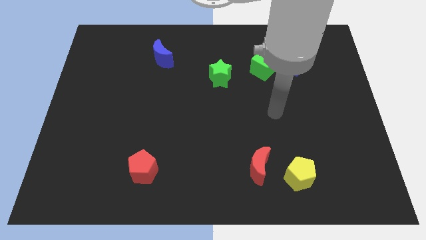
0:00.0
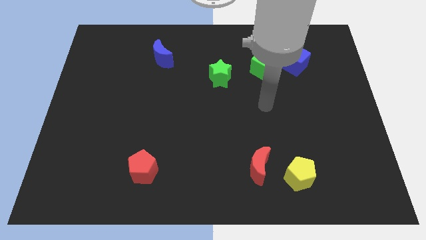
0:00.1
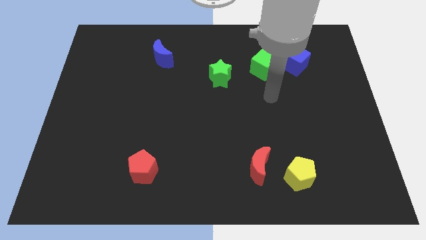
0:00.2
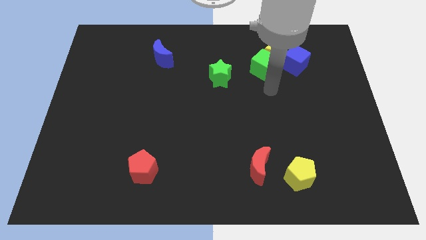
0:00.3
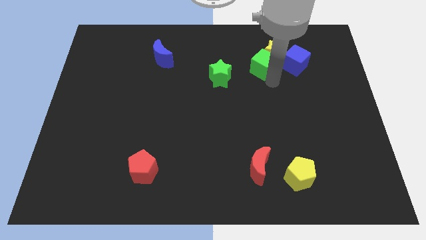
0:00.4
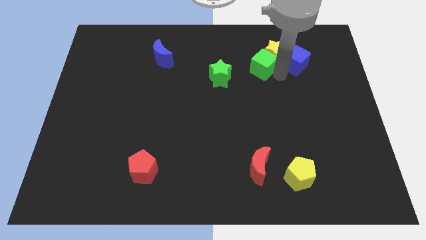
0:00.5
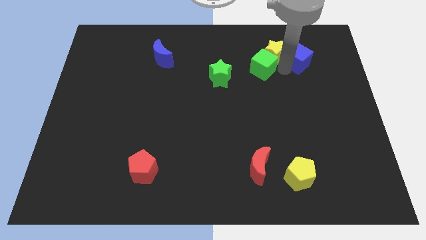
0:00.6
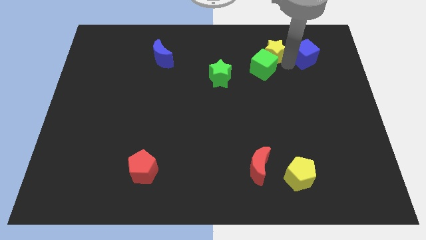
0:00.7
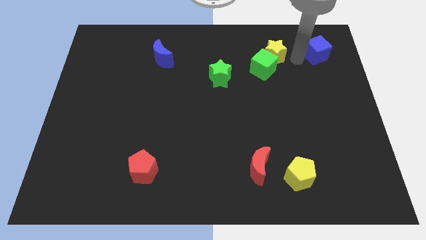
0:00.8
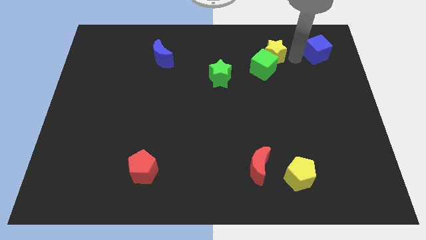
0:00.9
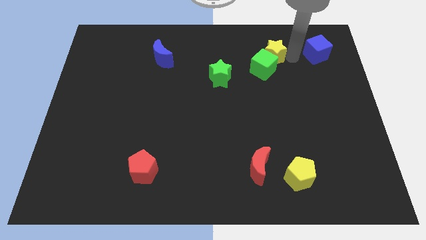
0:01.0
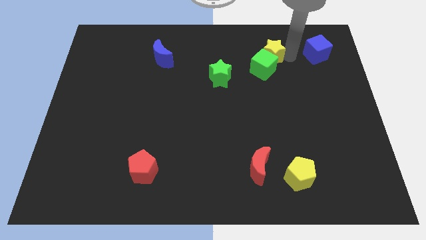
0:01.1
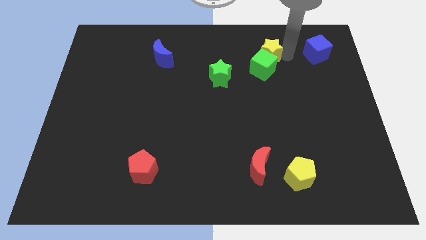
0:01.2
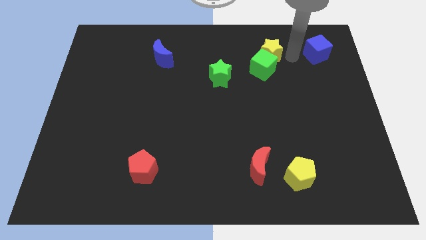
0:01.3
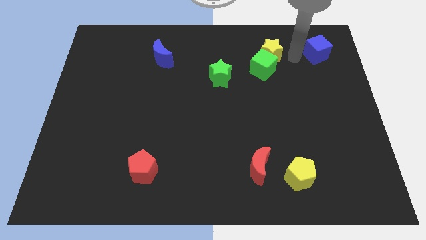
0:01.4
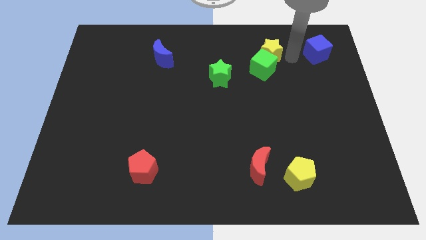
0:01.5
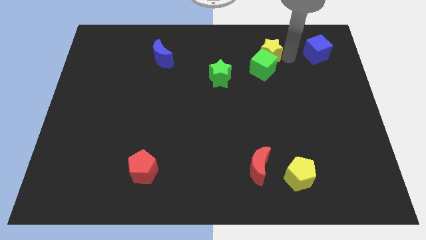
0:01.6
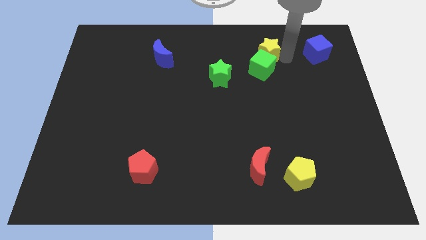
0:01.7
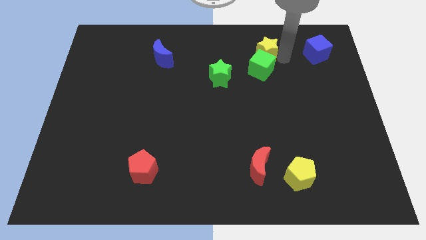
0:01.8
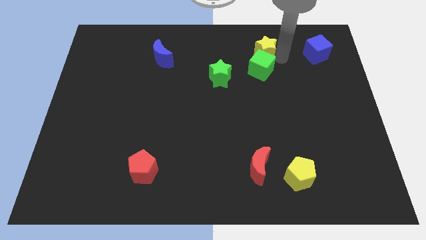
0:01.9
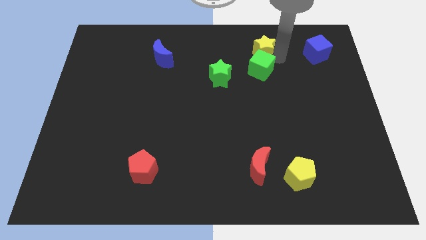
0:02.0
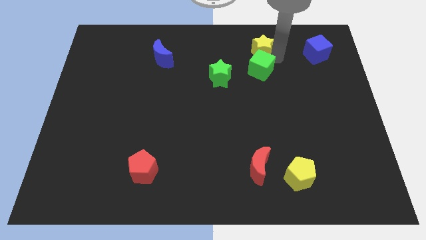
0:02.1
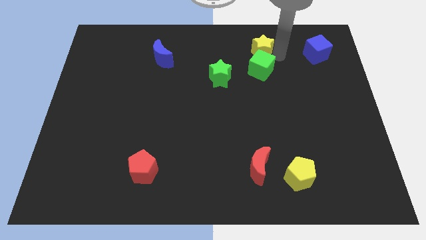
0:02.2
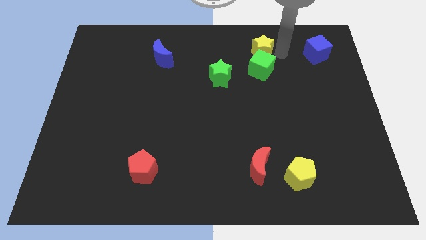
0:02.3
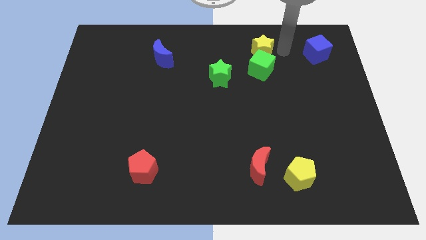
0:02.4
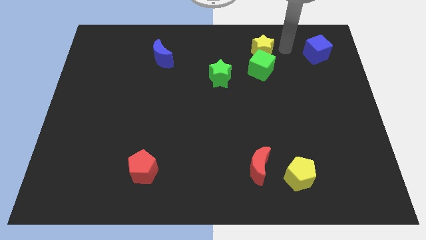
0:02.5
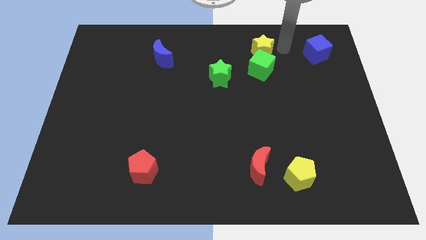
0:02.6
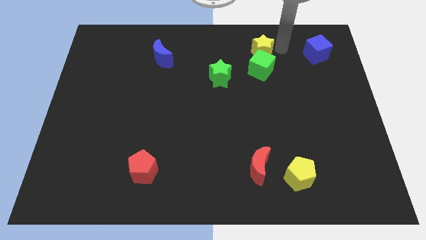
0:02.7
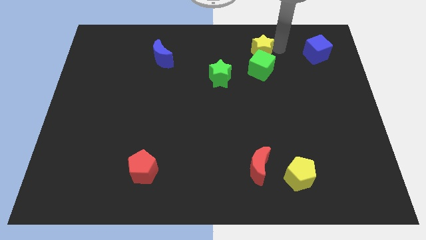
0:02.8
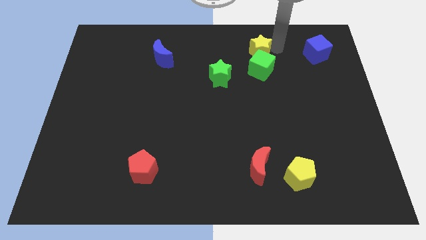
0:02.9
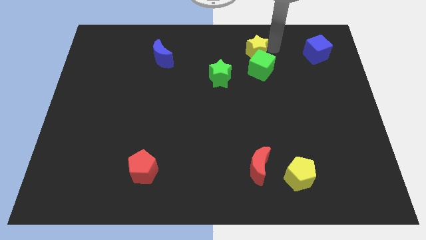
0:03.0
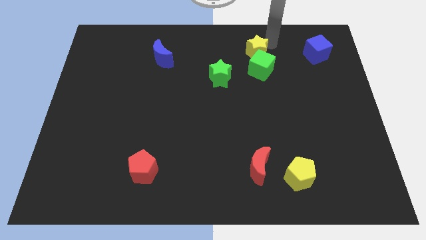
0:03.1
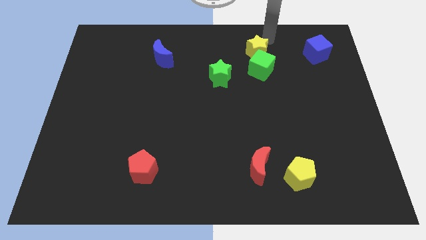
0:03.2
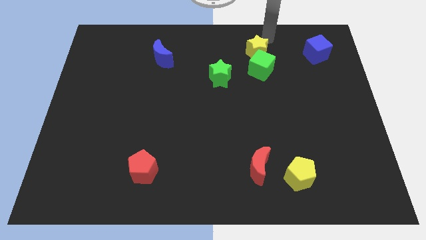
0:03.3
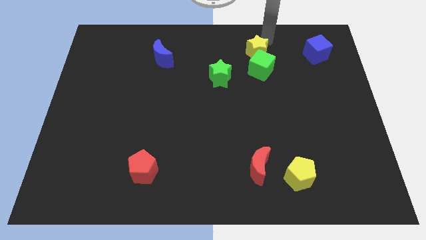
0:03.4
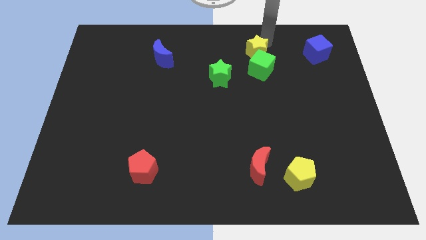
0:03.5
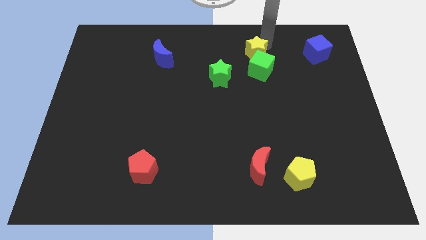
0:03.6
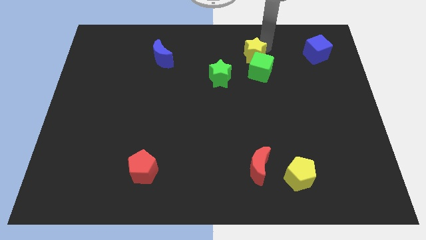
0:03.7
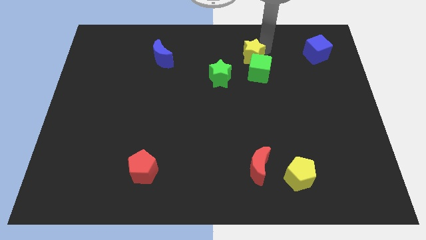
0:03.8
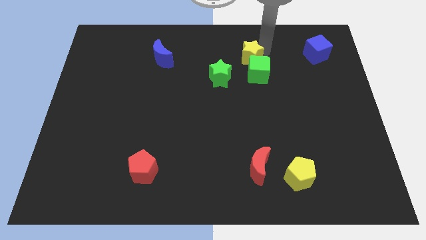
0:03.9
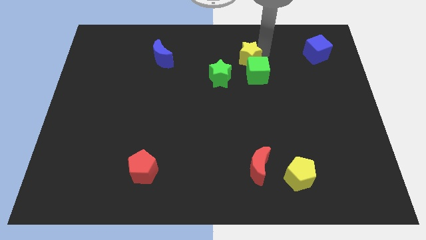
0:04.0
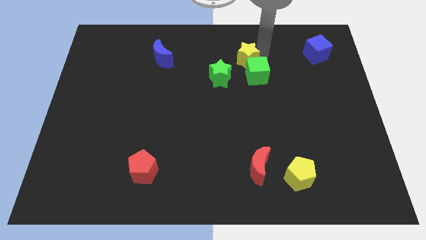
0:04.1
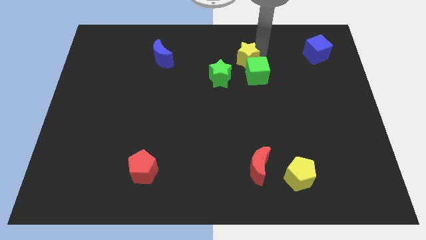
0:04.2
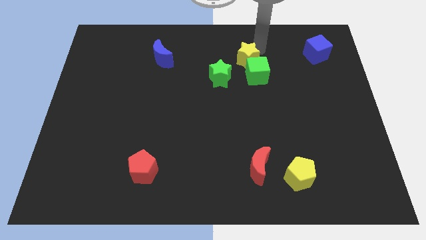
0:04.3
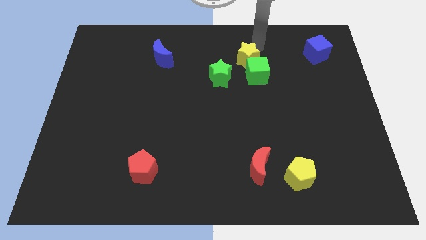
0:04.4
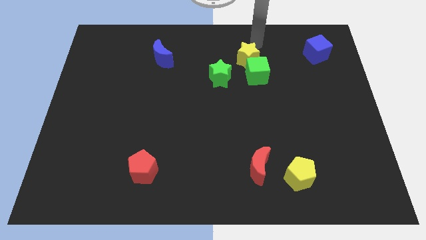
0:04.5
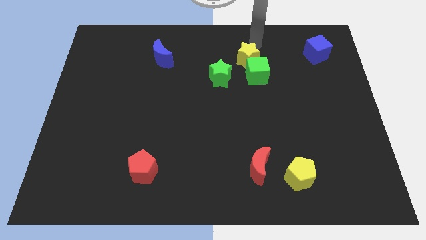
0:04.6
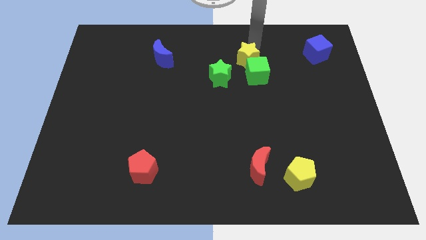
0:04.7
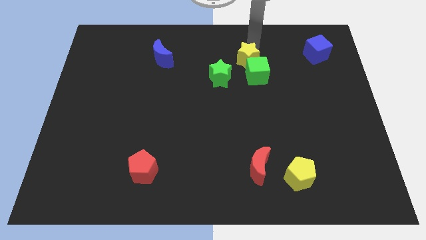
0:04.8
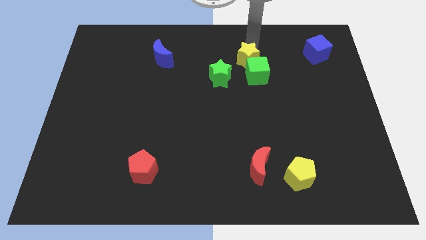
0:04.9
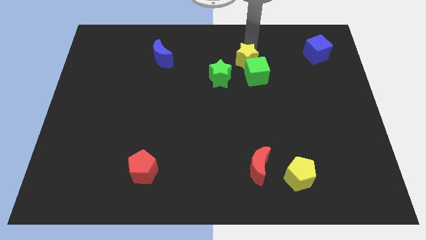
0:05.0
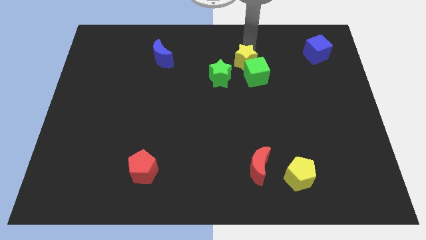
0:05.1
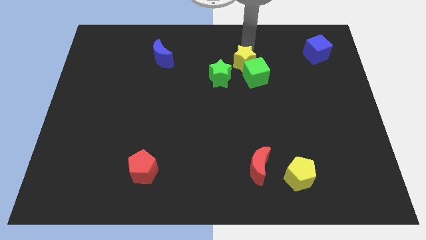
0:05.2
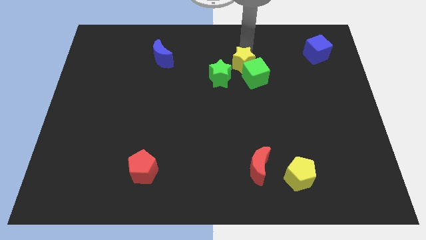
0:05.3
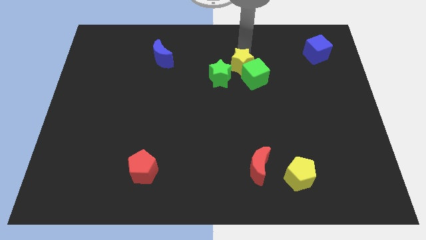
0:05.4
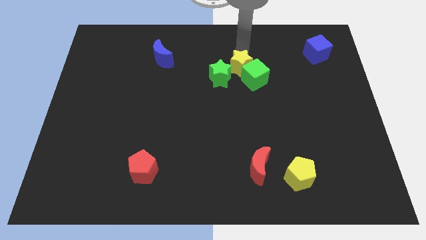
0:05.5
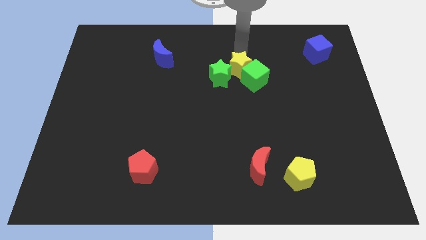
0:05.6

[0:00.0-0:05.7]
put the yellow star to the middle

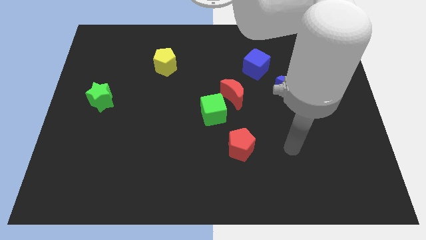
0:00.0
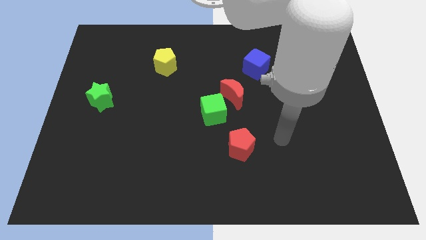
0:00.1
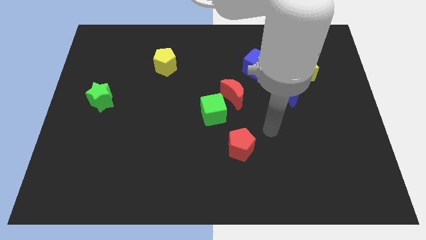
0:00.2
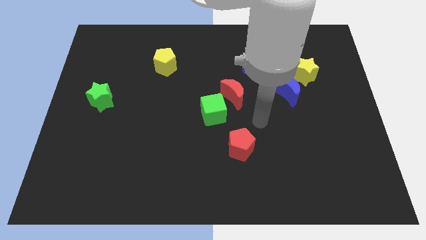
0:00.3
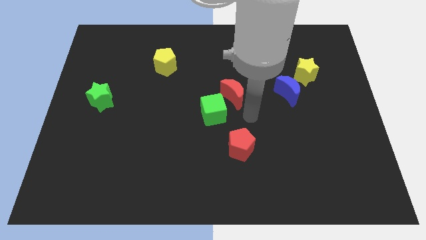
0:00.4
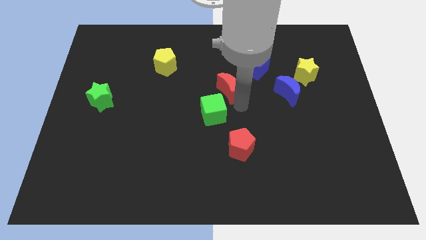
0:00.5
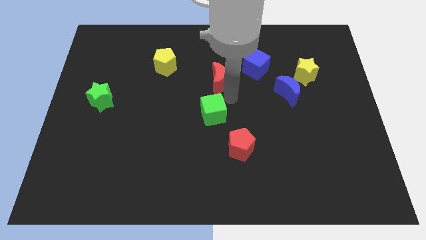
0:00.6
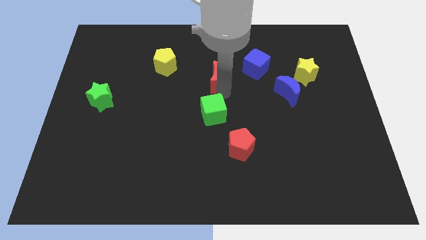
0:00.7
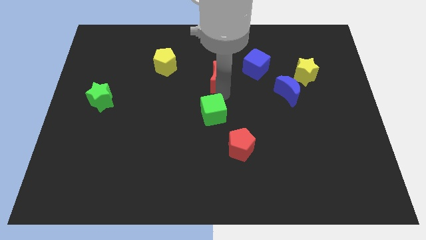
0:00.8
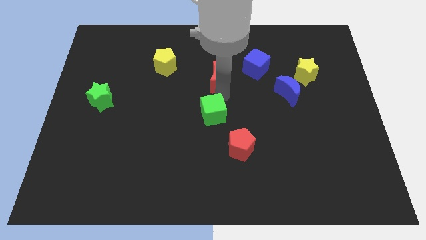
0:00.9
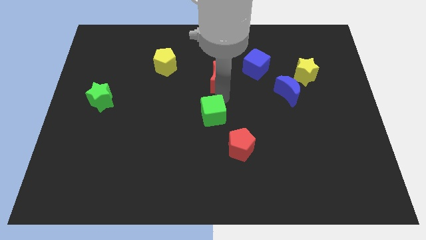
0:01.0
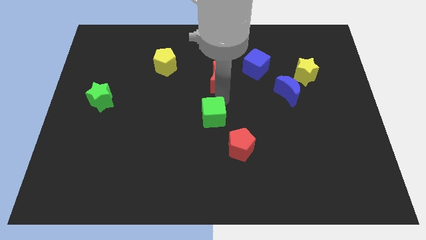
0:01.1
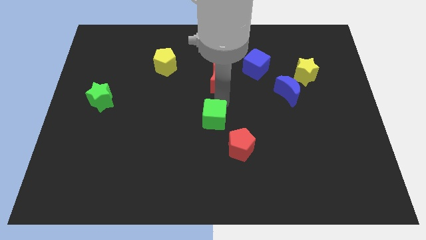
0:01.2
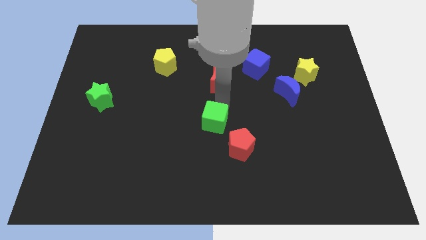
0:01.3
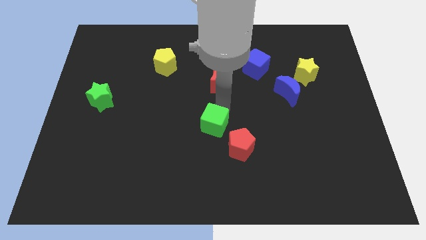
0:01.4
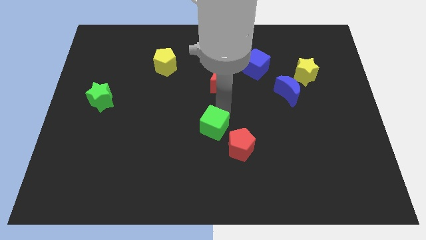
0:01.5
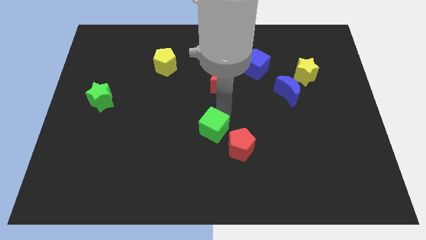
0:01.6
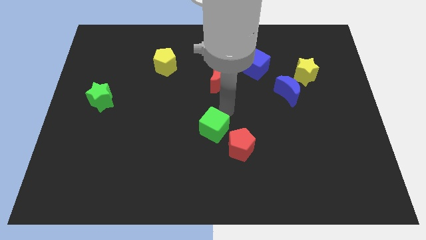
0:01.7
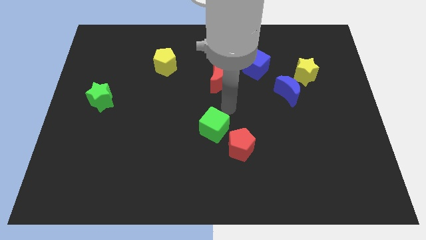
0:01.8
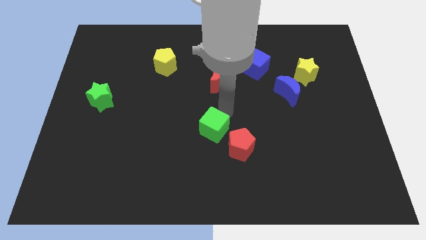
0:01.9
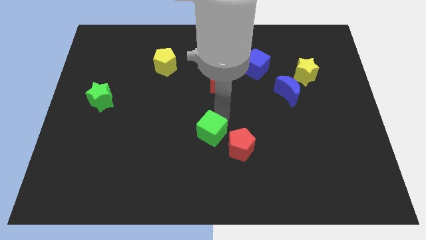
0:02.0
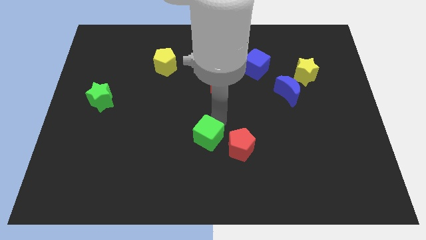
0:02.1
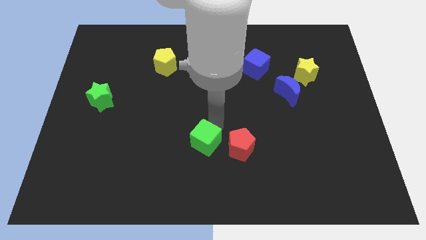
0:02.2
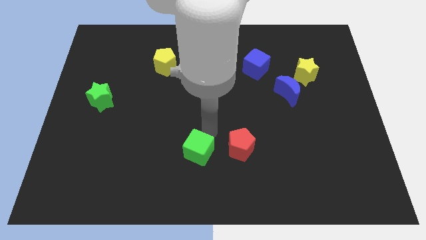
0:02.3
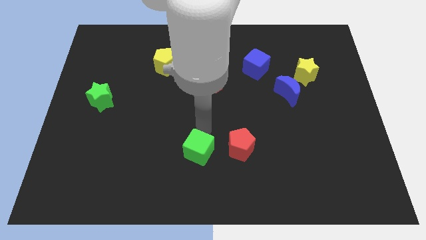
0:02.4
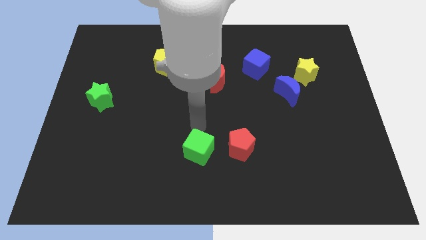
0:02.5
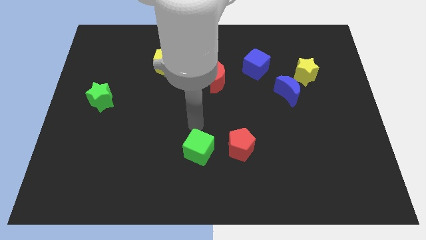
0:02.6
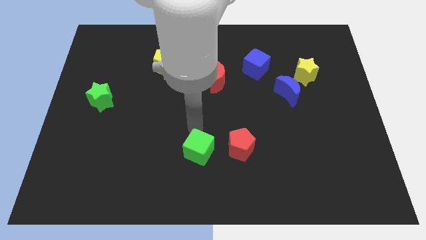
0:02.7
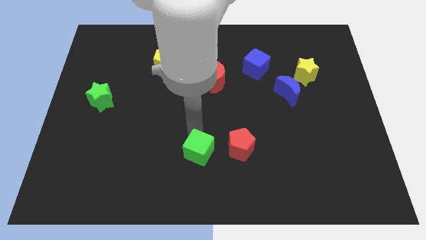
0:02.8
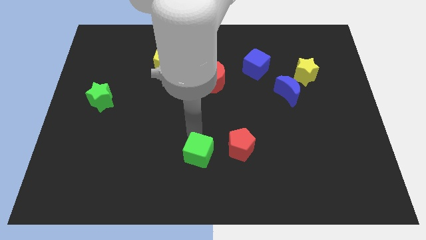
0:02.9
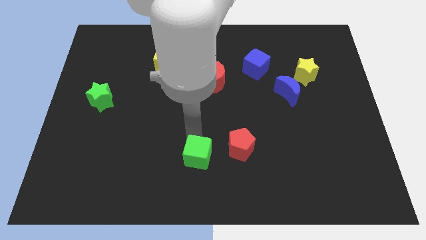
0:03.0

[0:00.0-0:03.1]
move the green cube to the bottom
